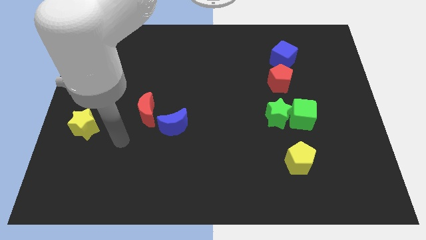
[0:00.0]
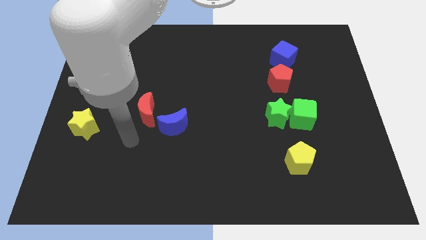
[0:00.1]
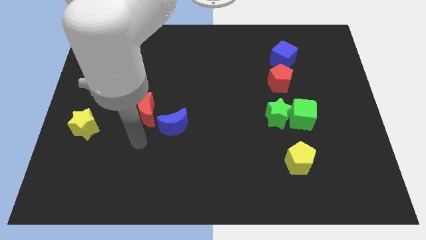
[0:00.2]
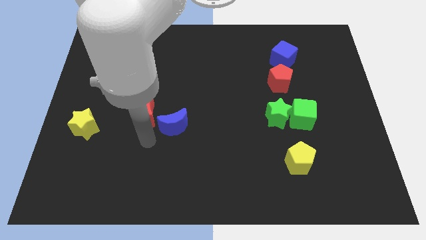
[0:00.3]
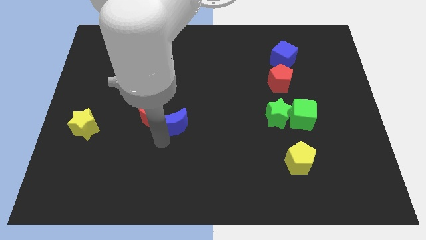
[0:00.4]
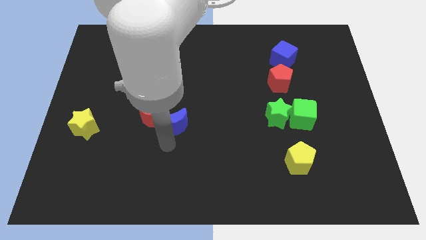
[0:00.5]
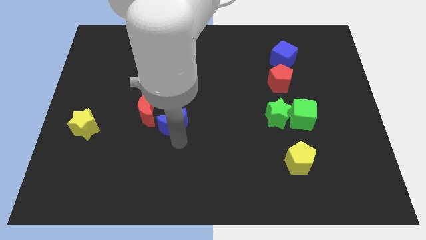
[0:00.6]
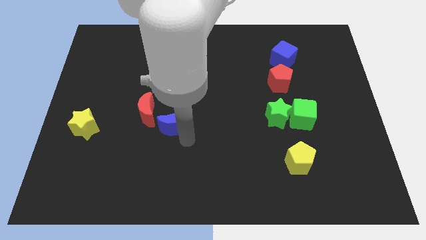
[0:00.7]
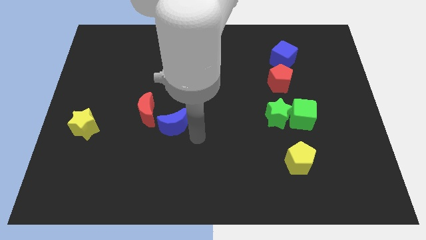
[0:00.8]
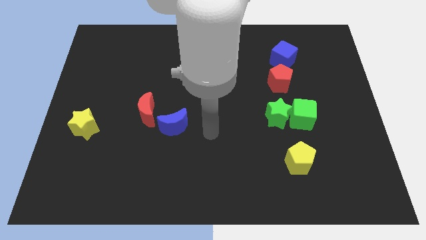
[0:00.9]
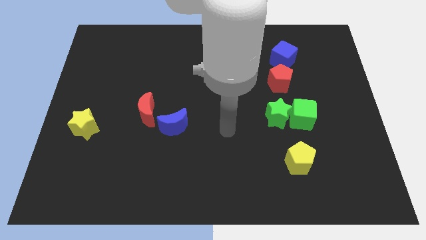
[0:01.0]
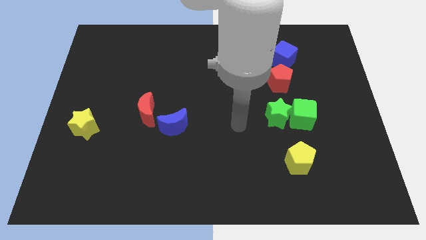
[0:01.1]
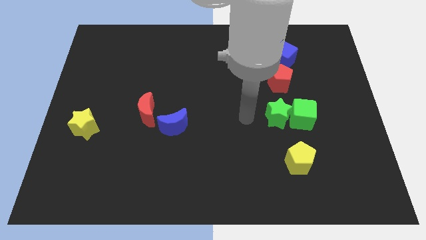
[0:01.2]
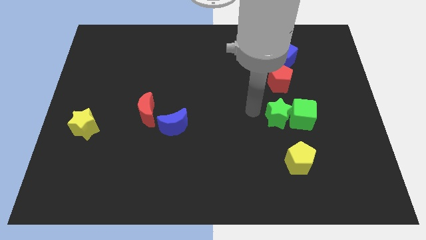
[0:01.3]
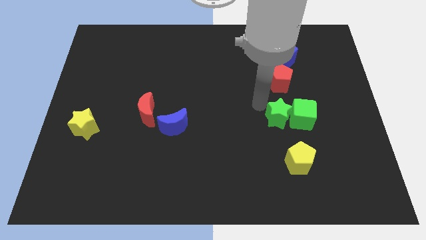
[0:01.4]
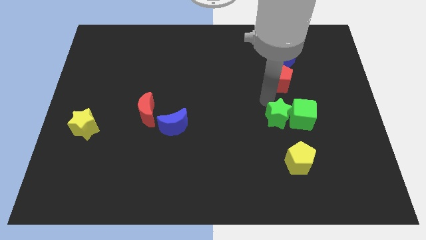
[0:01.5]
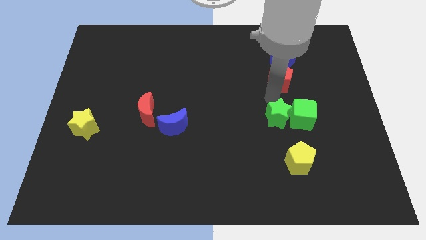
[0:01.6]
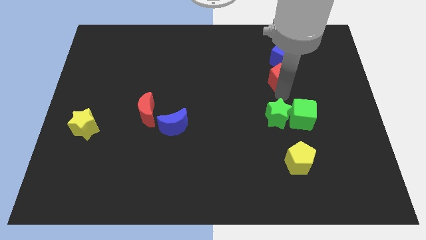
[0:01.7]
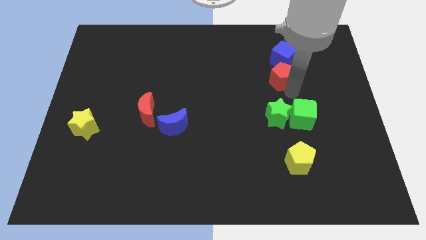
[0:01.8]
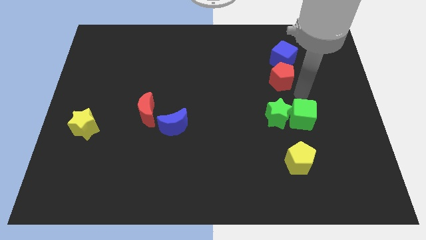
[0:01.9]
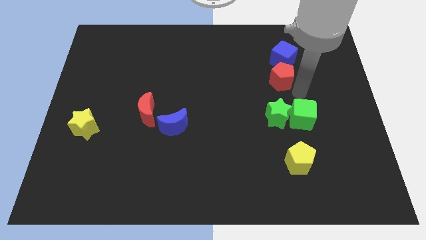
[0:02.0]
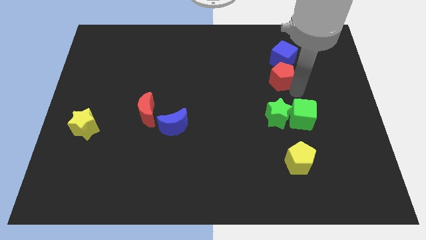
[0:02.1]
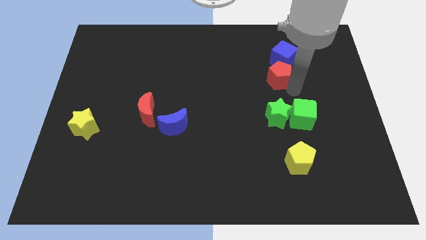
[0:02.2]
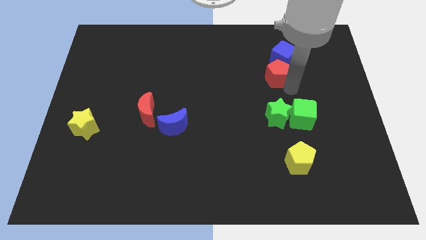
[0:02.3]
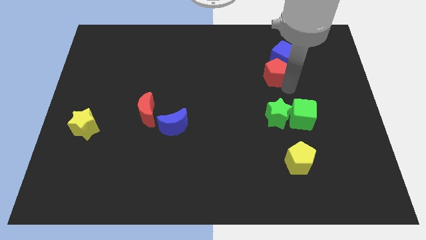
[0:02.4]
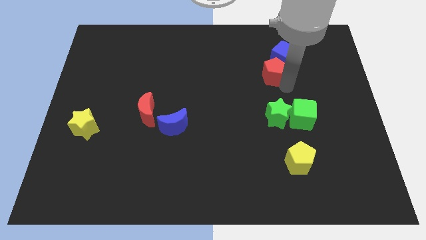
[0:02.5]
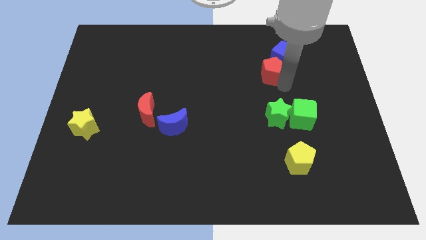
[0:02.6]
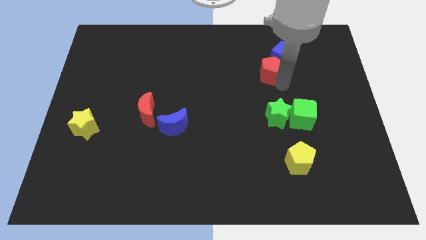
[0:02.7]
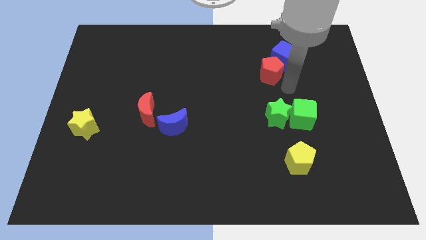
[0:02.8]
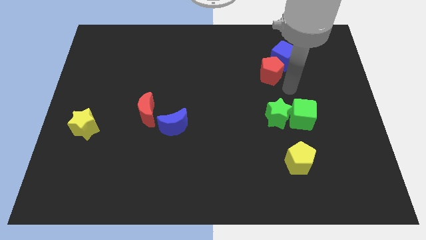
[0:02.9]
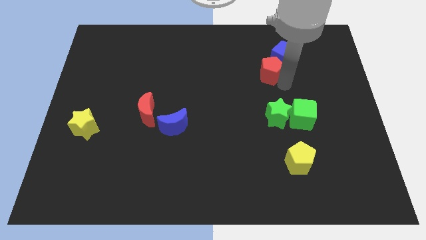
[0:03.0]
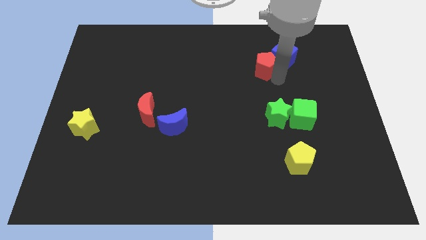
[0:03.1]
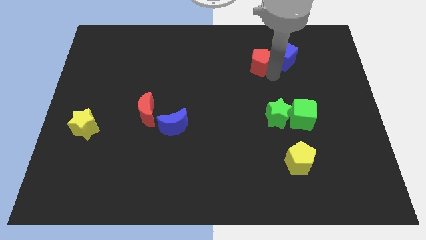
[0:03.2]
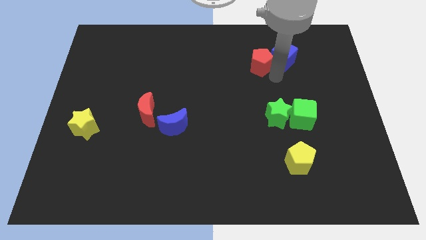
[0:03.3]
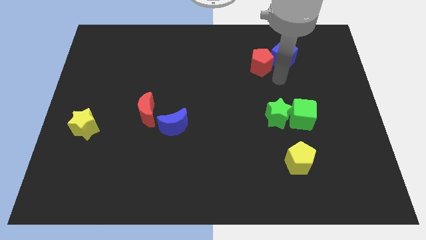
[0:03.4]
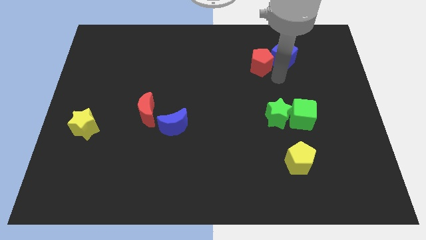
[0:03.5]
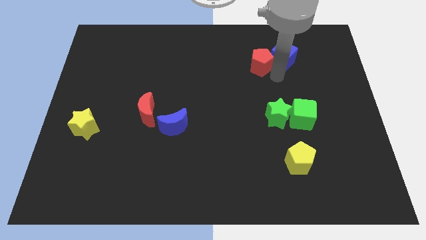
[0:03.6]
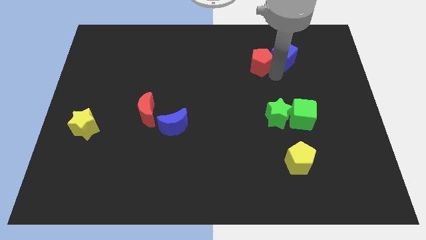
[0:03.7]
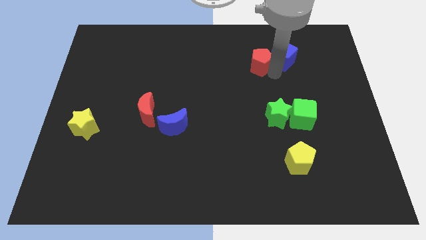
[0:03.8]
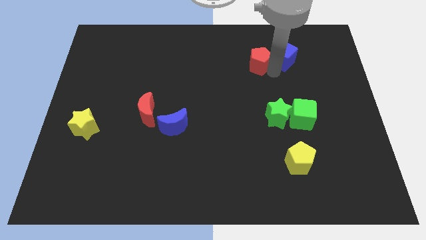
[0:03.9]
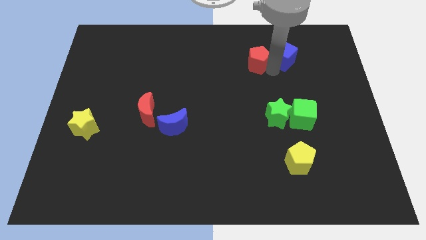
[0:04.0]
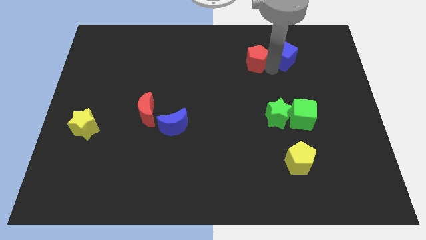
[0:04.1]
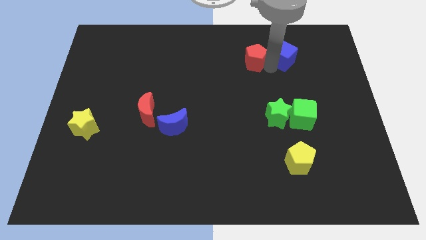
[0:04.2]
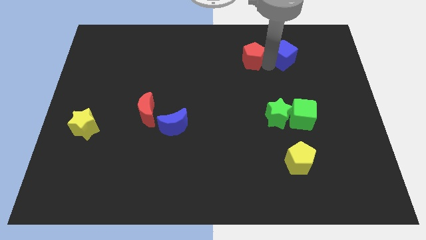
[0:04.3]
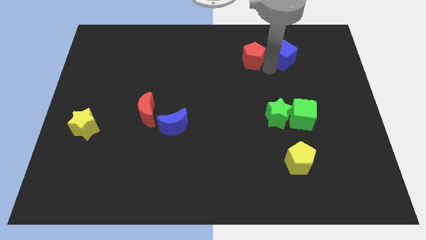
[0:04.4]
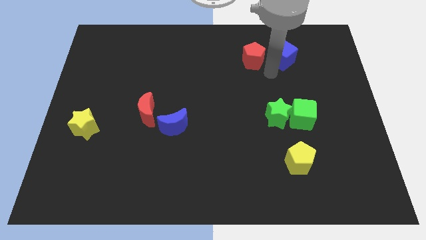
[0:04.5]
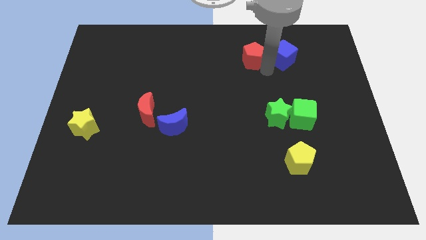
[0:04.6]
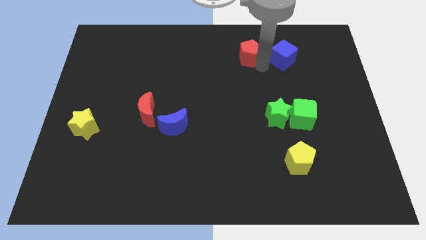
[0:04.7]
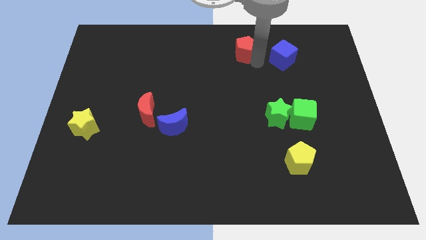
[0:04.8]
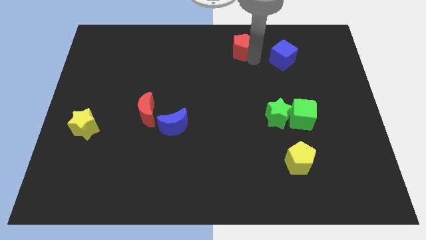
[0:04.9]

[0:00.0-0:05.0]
push the red pentagon to the top side

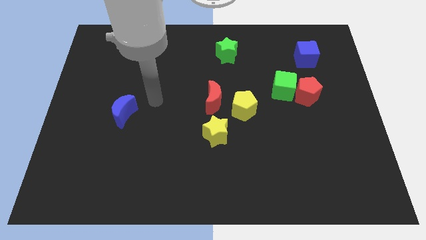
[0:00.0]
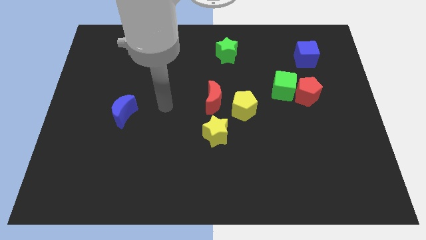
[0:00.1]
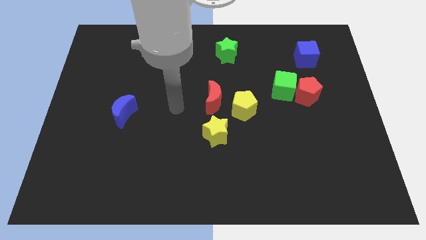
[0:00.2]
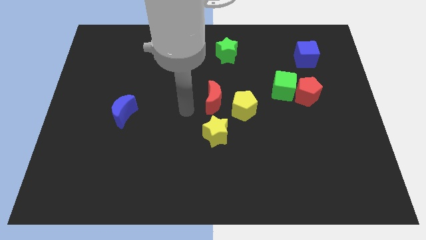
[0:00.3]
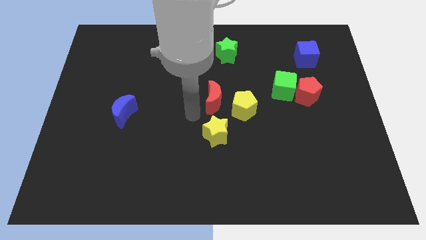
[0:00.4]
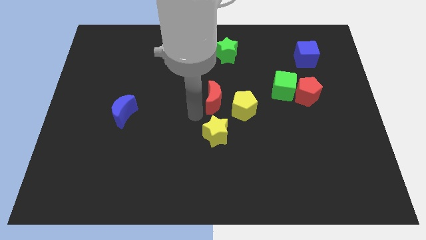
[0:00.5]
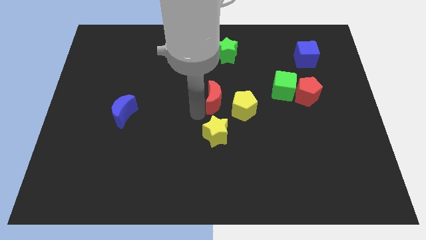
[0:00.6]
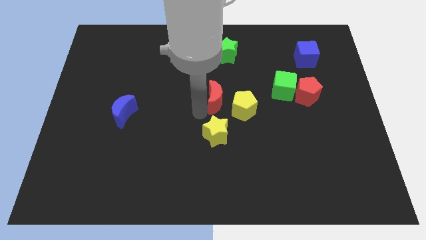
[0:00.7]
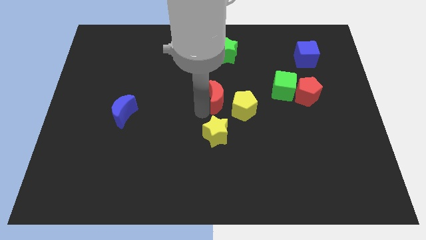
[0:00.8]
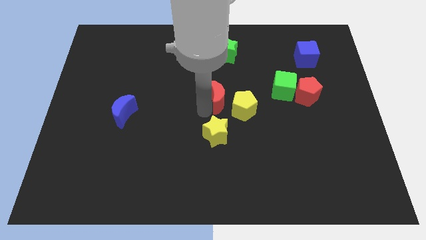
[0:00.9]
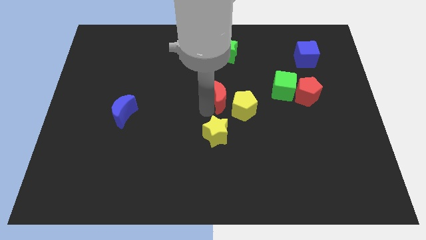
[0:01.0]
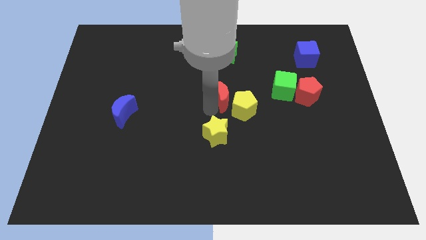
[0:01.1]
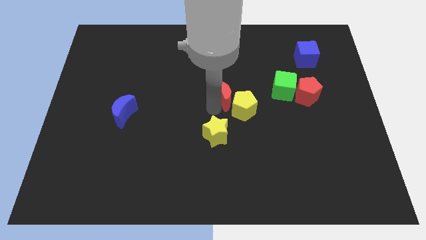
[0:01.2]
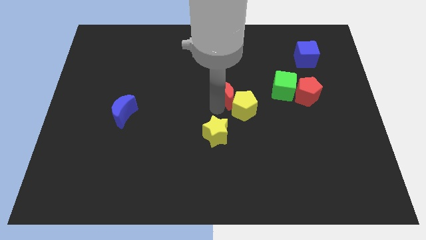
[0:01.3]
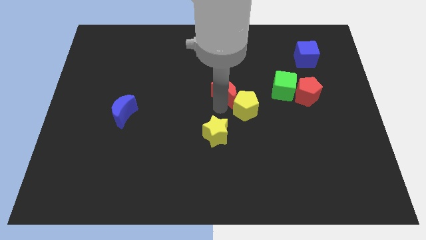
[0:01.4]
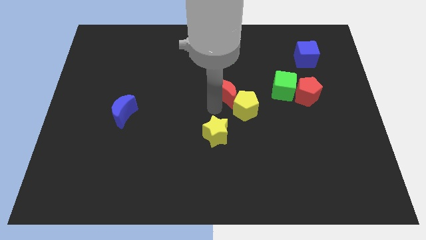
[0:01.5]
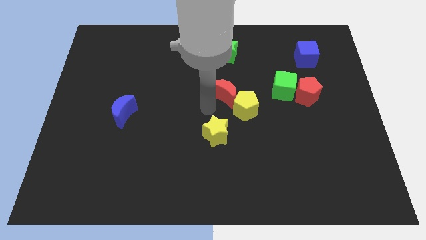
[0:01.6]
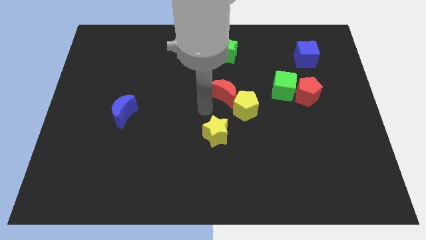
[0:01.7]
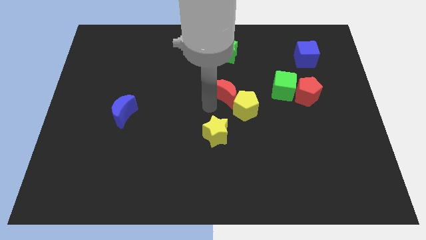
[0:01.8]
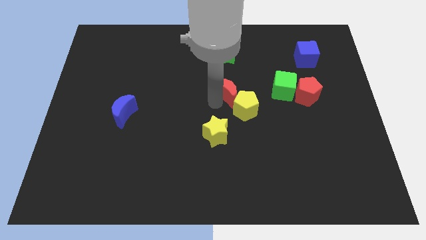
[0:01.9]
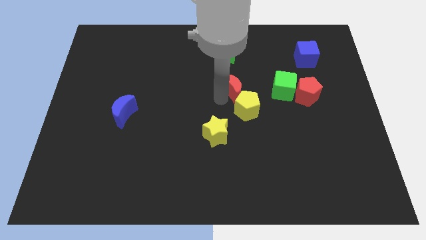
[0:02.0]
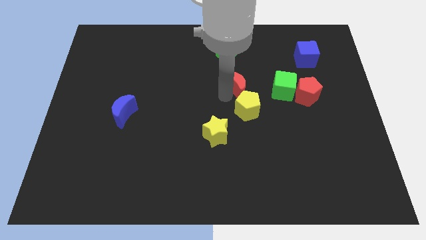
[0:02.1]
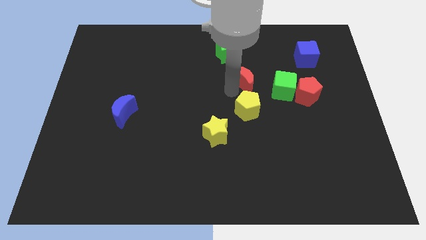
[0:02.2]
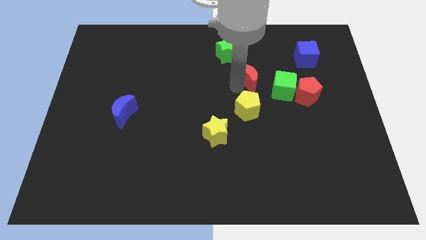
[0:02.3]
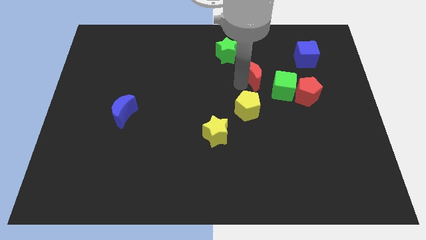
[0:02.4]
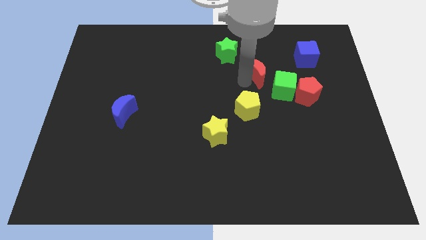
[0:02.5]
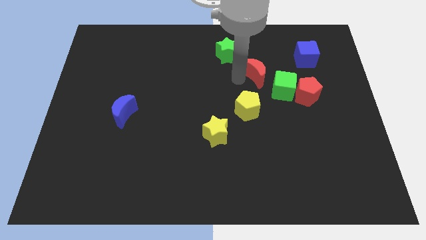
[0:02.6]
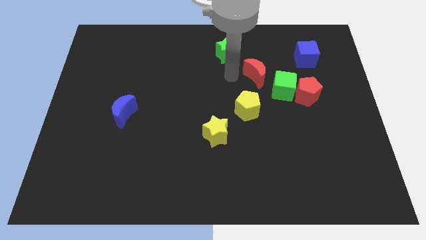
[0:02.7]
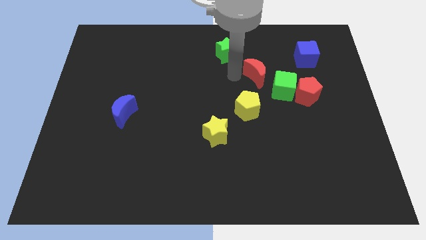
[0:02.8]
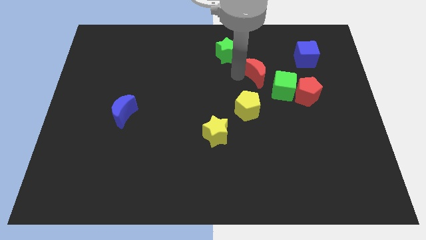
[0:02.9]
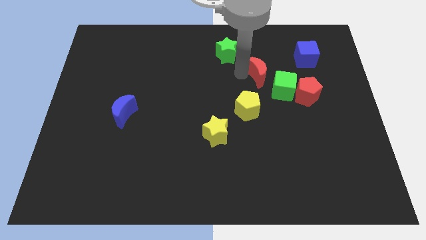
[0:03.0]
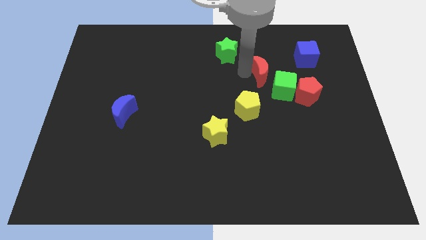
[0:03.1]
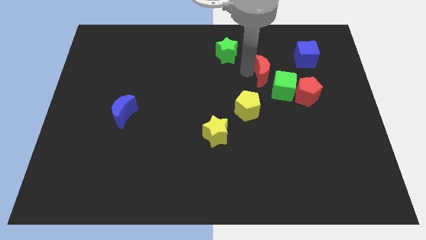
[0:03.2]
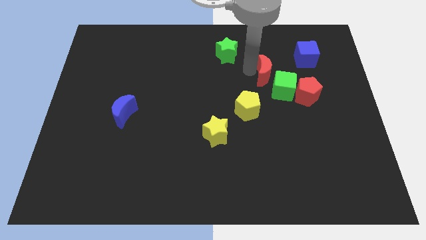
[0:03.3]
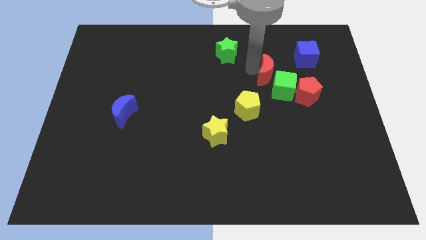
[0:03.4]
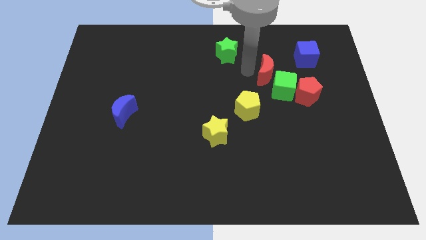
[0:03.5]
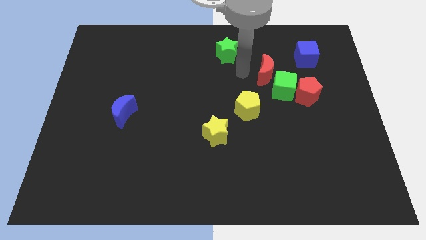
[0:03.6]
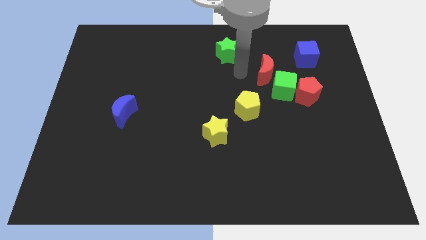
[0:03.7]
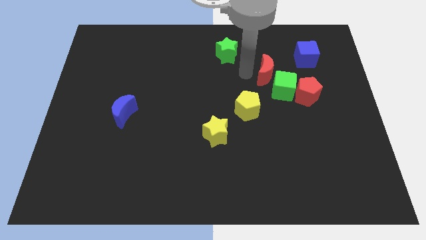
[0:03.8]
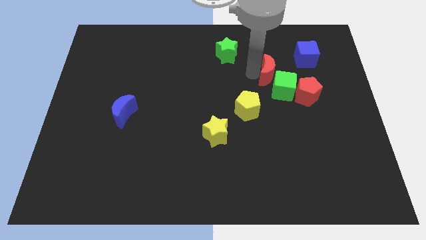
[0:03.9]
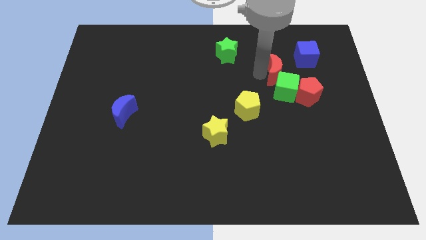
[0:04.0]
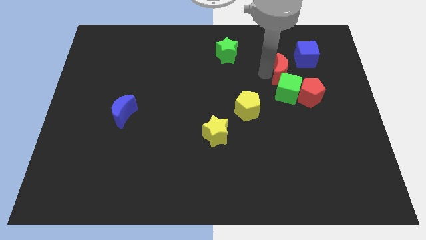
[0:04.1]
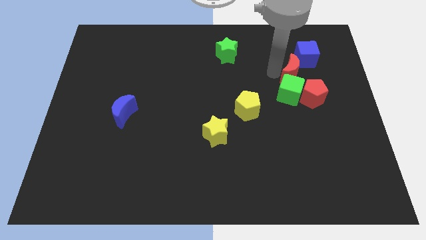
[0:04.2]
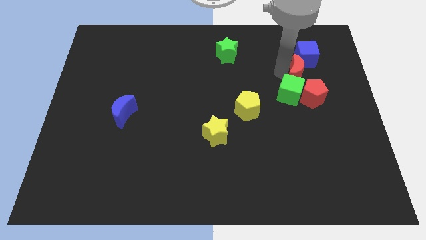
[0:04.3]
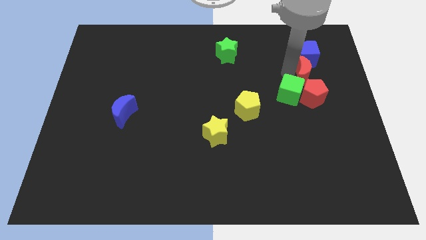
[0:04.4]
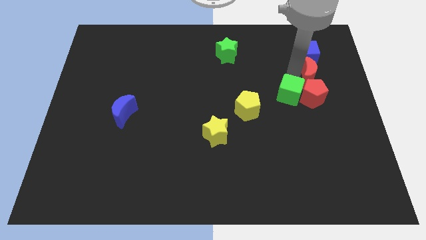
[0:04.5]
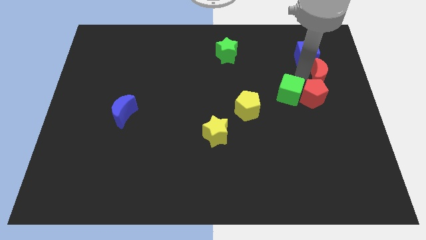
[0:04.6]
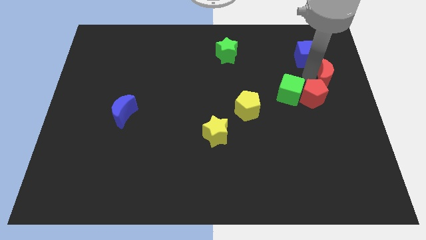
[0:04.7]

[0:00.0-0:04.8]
slide the red moon to the center right
